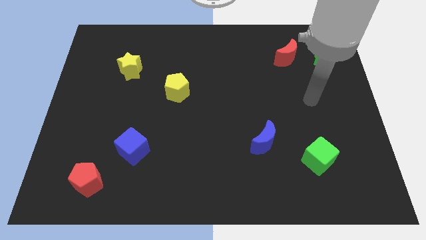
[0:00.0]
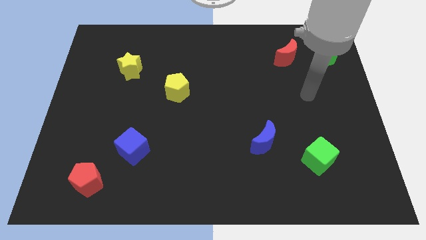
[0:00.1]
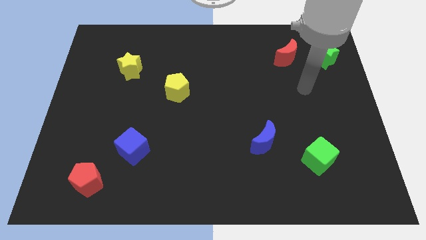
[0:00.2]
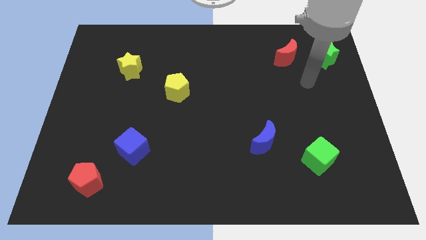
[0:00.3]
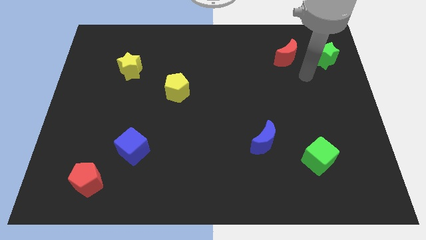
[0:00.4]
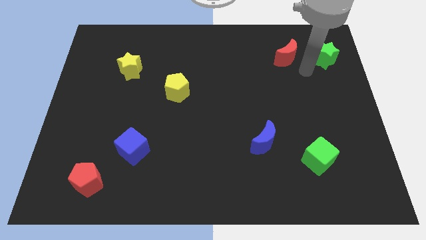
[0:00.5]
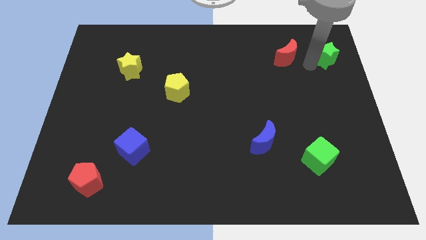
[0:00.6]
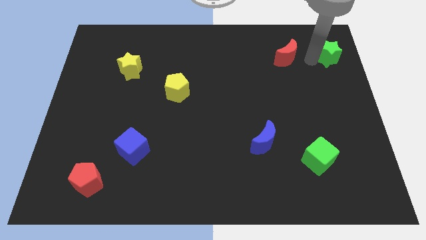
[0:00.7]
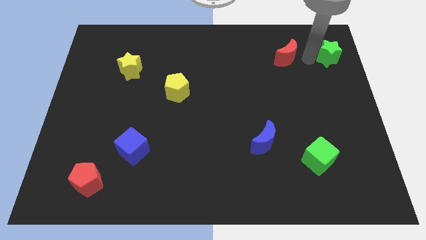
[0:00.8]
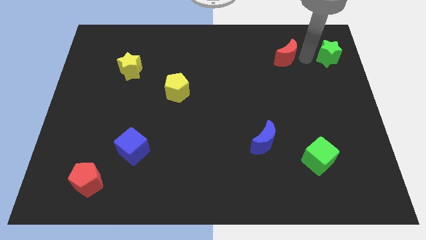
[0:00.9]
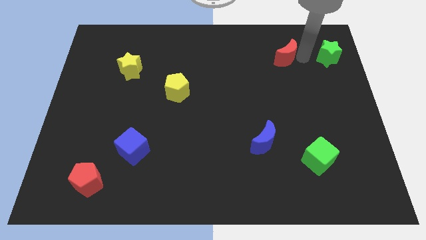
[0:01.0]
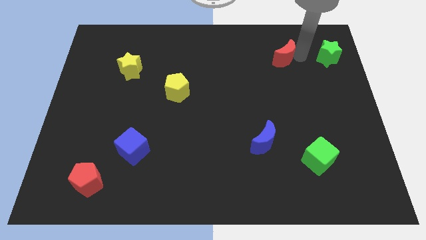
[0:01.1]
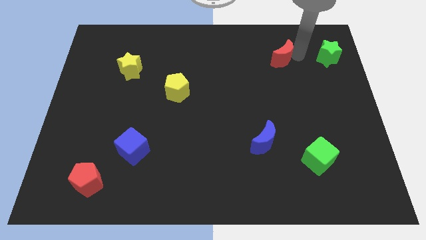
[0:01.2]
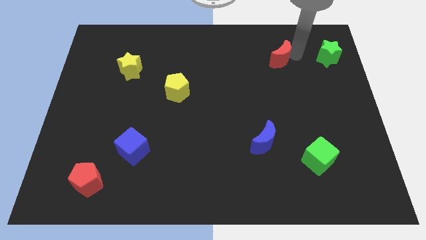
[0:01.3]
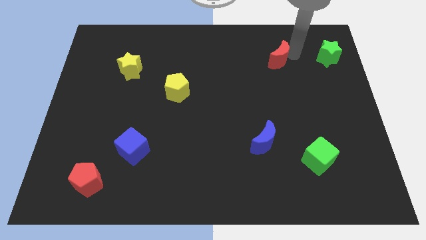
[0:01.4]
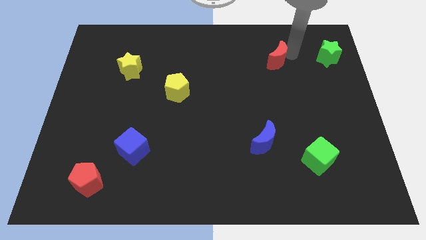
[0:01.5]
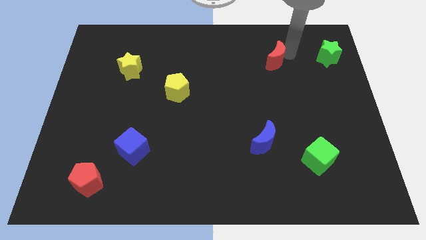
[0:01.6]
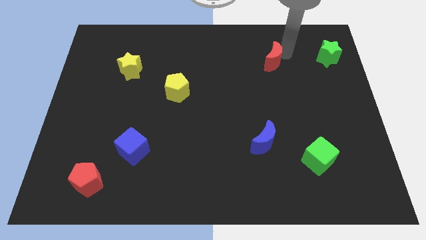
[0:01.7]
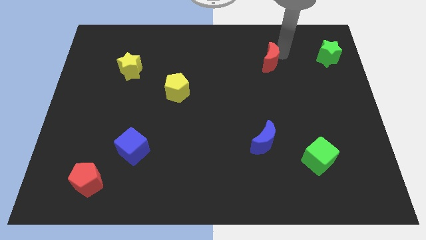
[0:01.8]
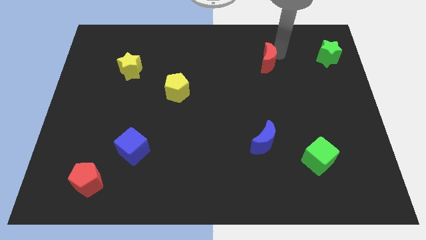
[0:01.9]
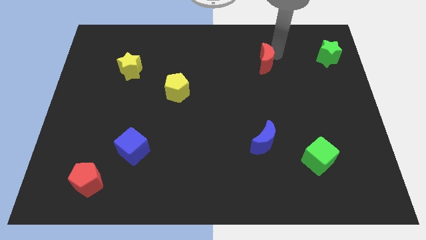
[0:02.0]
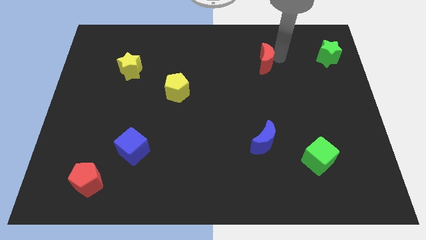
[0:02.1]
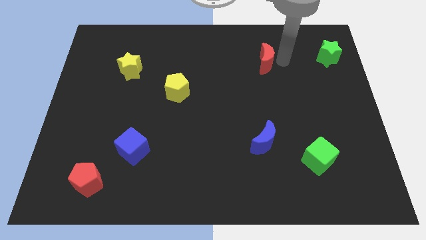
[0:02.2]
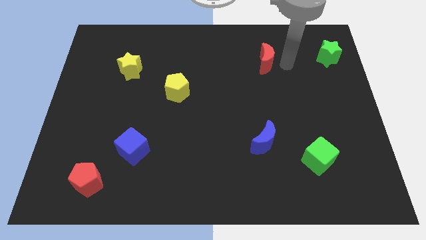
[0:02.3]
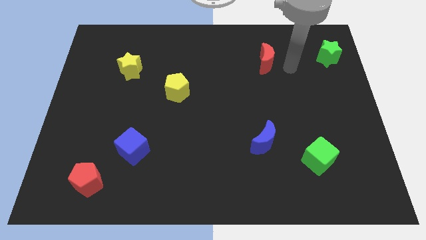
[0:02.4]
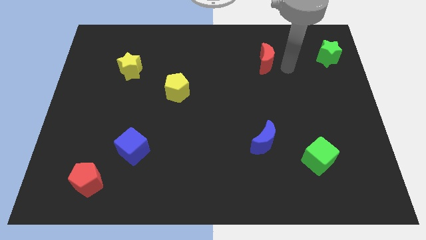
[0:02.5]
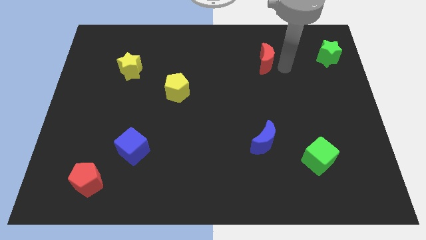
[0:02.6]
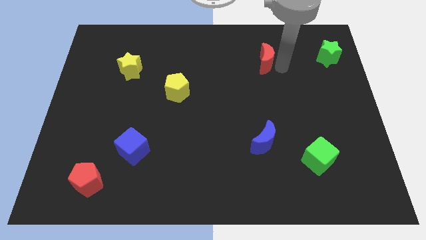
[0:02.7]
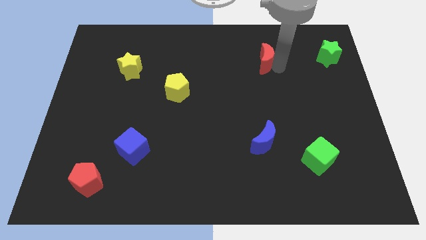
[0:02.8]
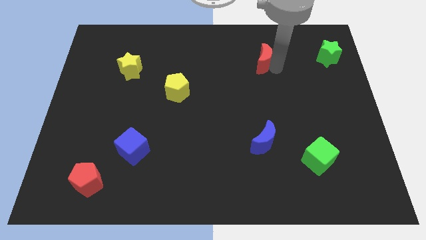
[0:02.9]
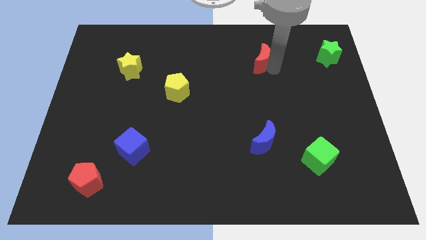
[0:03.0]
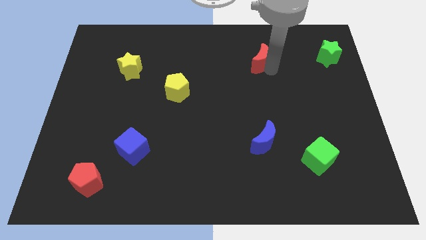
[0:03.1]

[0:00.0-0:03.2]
push the red moon slightly left

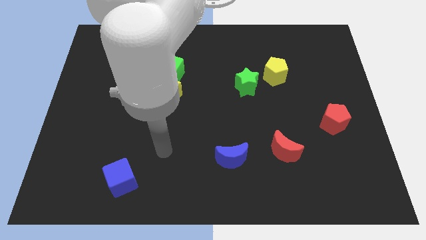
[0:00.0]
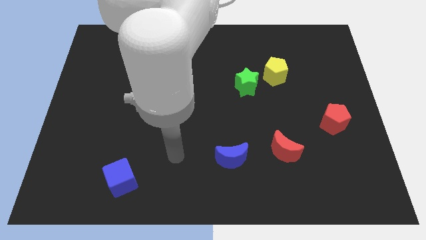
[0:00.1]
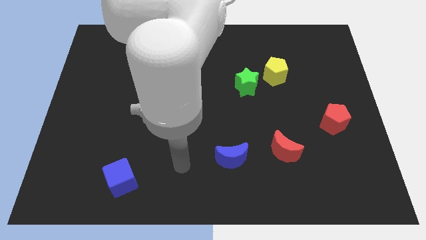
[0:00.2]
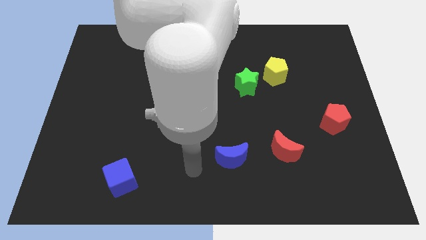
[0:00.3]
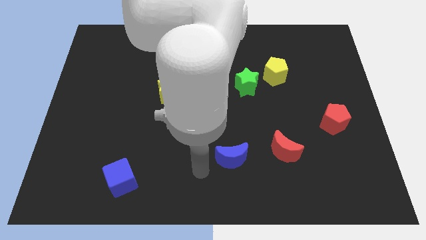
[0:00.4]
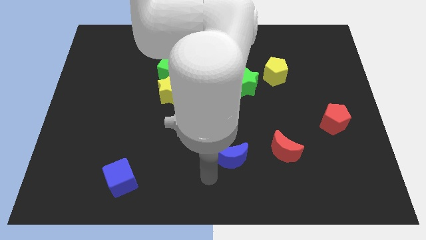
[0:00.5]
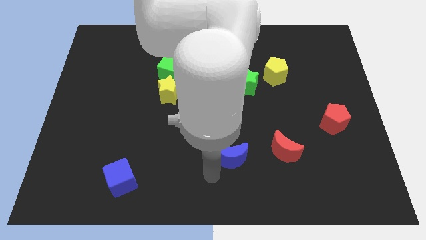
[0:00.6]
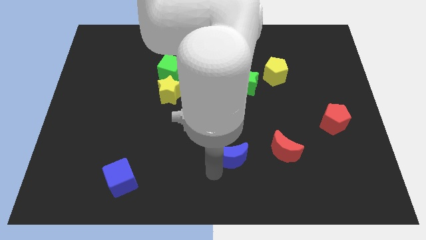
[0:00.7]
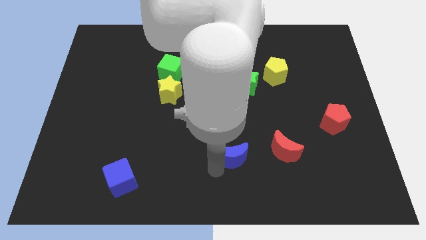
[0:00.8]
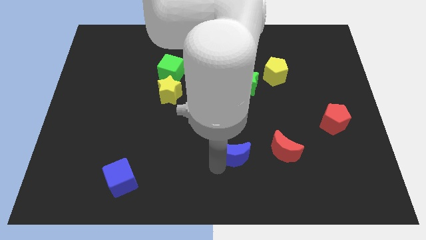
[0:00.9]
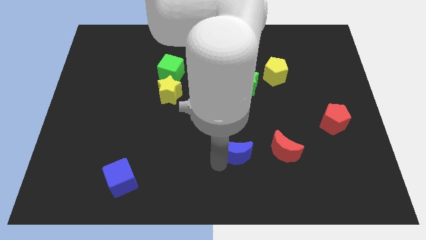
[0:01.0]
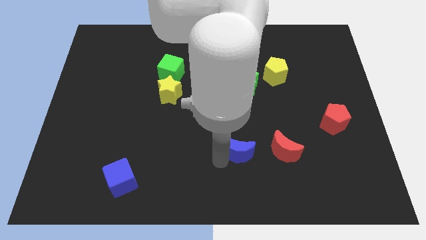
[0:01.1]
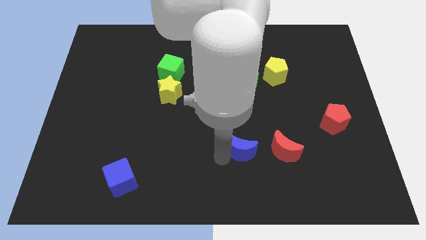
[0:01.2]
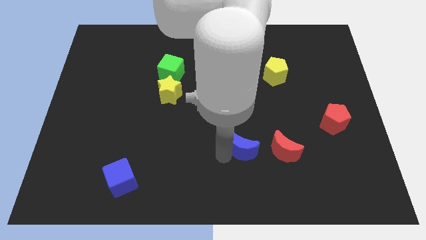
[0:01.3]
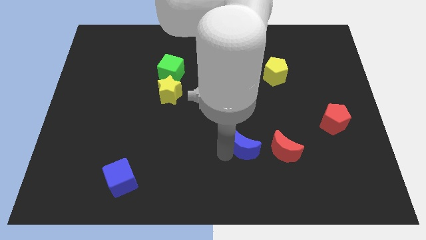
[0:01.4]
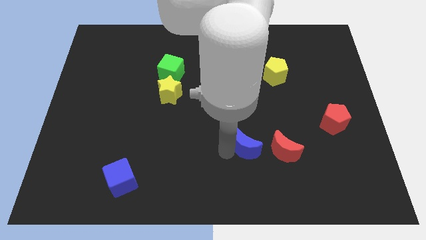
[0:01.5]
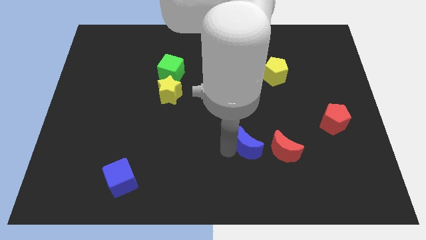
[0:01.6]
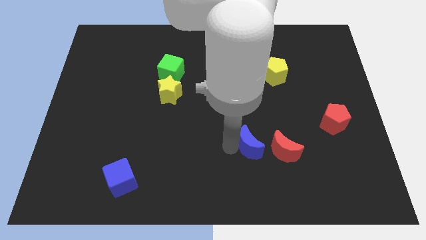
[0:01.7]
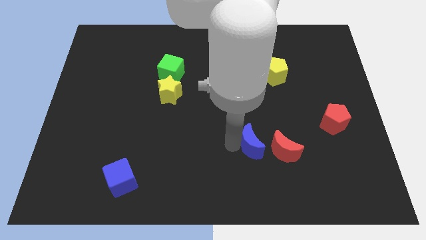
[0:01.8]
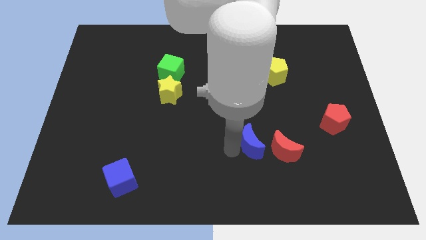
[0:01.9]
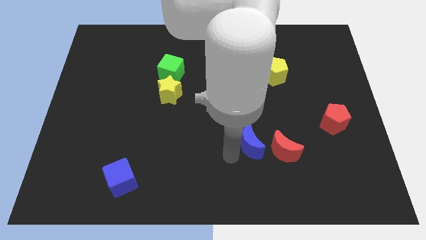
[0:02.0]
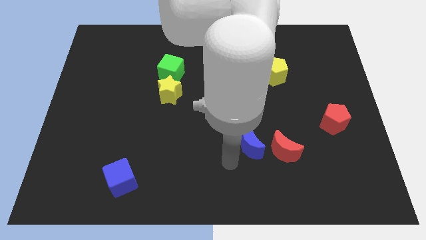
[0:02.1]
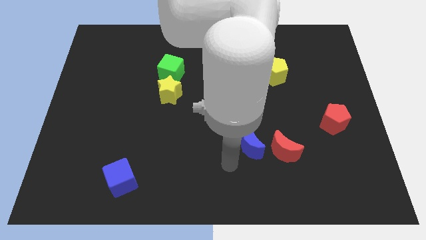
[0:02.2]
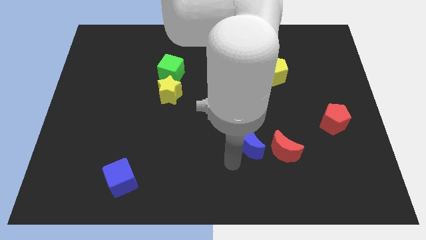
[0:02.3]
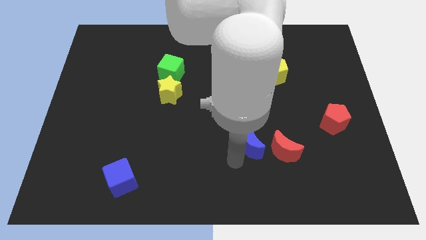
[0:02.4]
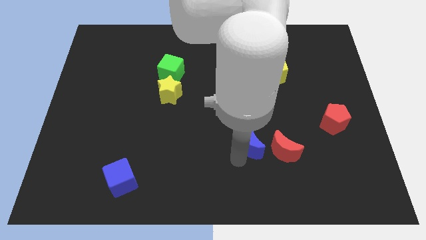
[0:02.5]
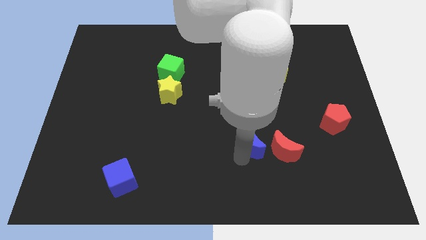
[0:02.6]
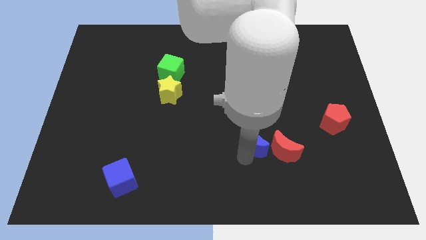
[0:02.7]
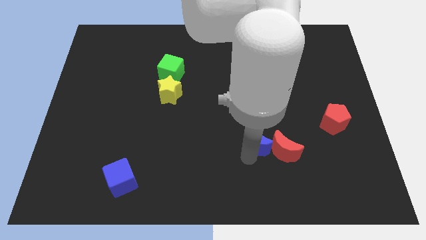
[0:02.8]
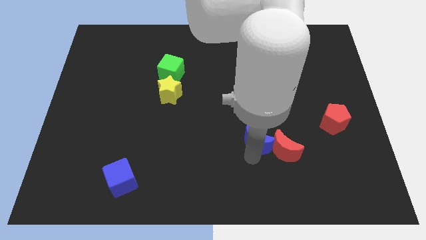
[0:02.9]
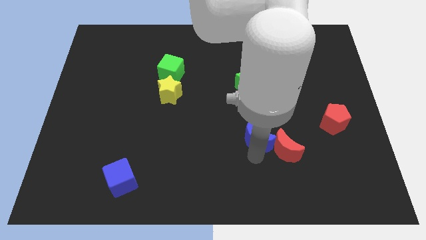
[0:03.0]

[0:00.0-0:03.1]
push the blue moon upwards and right somewhat

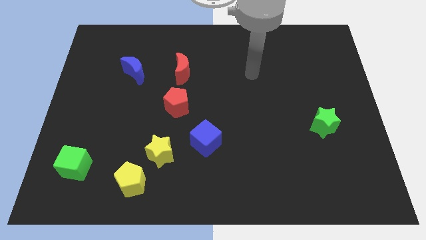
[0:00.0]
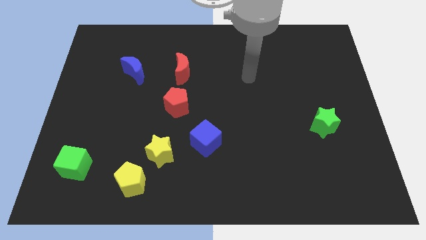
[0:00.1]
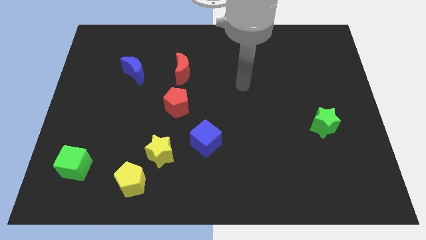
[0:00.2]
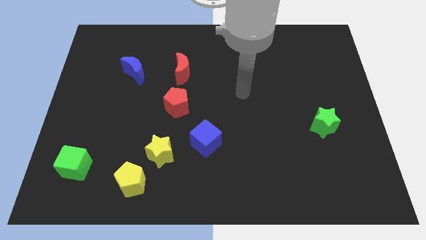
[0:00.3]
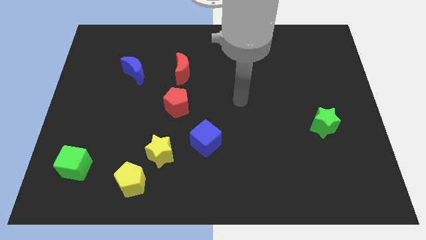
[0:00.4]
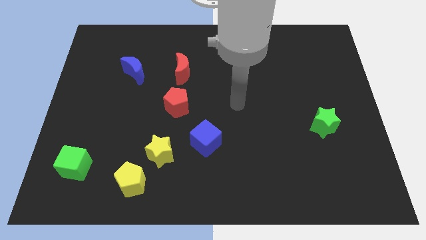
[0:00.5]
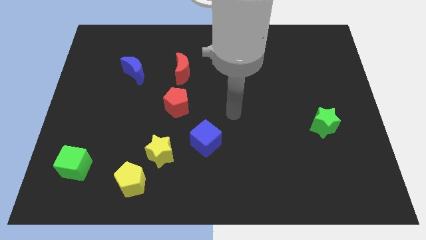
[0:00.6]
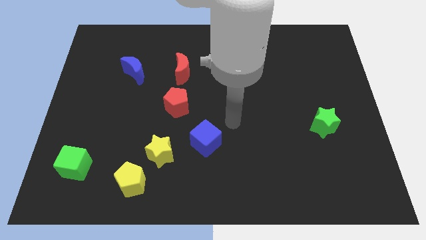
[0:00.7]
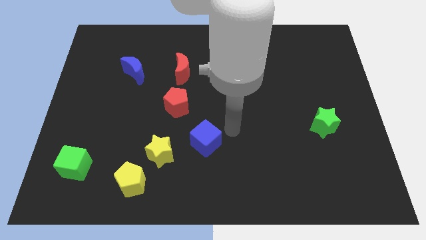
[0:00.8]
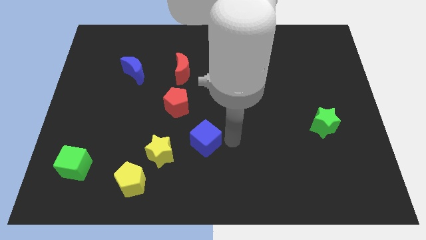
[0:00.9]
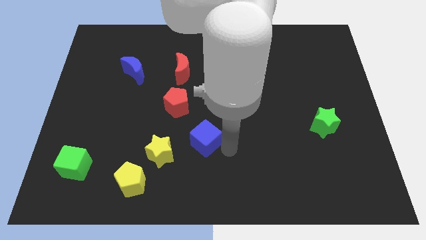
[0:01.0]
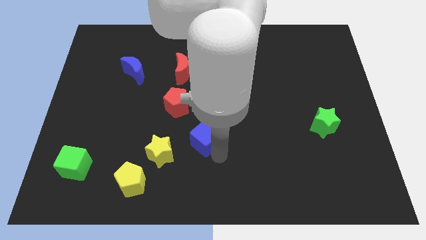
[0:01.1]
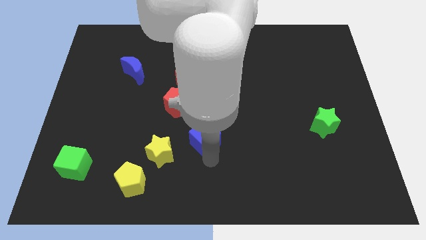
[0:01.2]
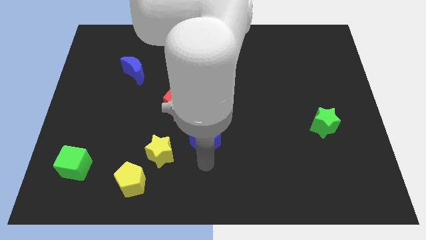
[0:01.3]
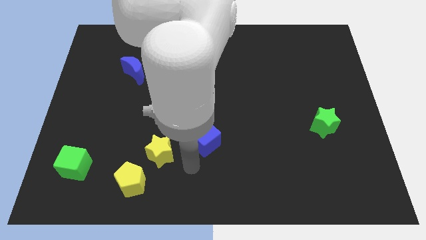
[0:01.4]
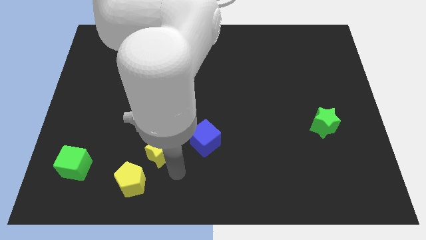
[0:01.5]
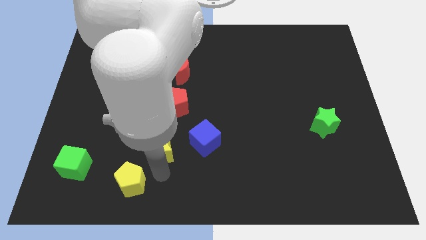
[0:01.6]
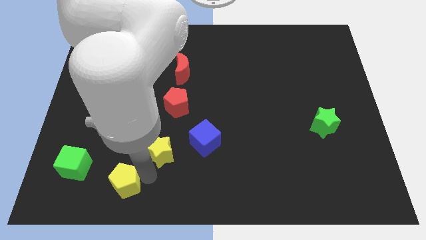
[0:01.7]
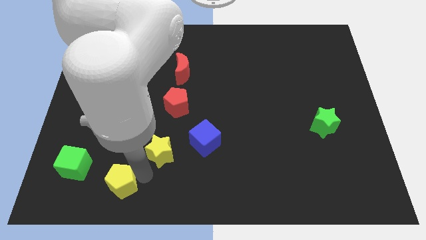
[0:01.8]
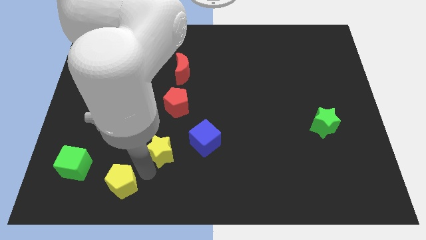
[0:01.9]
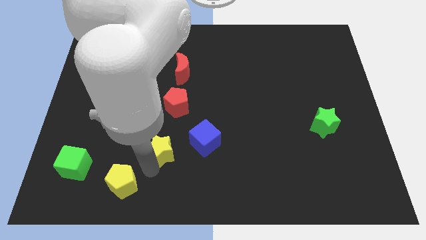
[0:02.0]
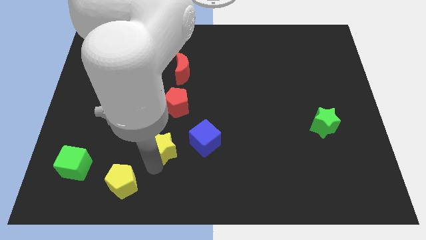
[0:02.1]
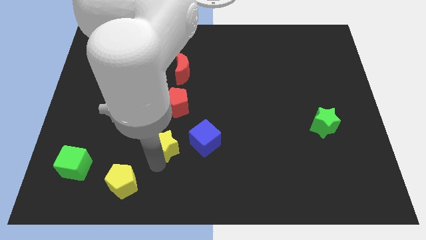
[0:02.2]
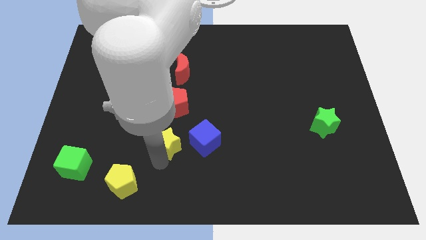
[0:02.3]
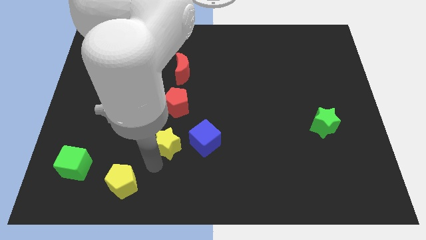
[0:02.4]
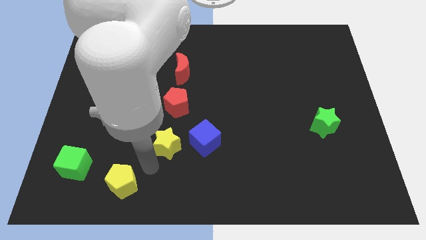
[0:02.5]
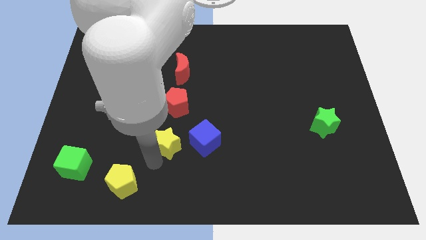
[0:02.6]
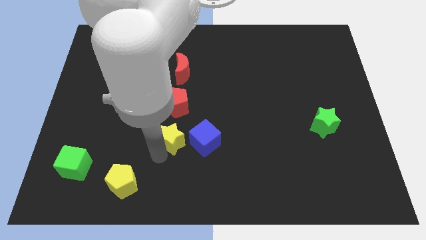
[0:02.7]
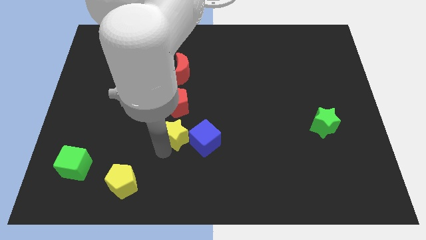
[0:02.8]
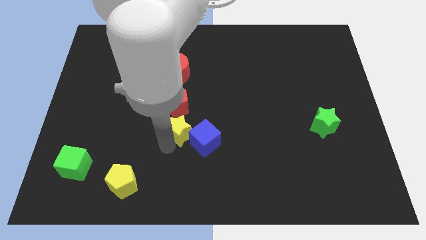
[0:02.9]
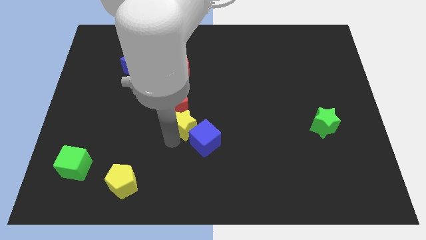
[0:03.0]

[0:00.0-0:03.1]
slightly slide the yellow star upwards and right
